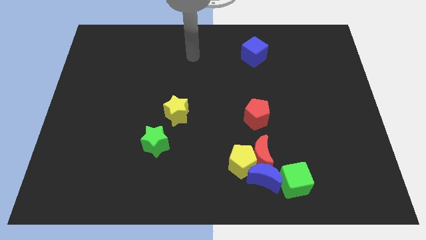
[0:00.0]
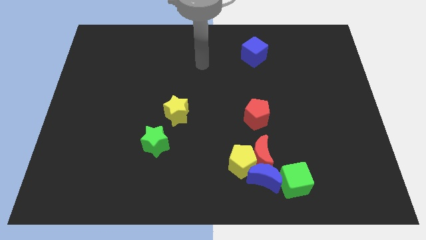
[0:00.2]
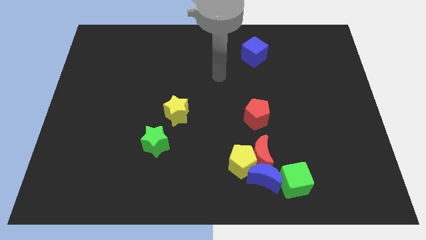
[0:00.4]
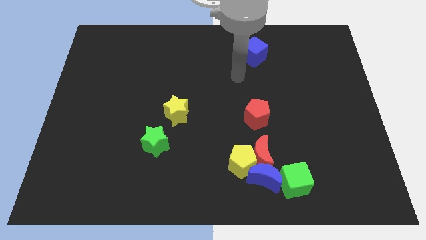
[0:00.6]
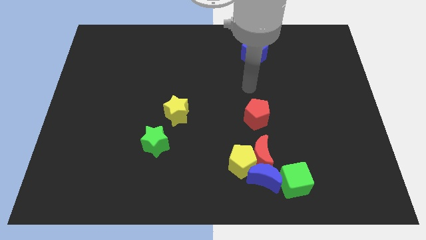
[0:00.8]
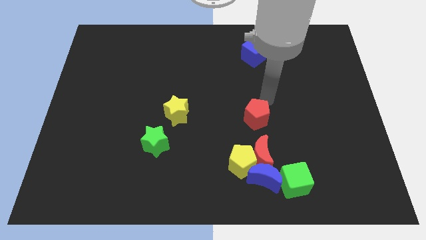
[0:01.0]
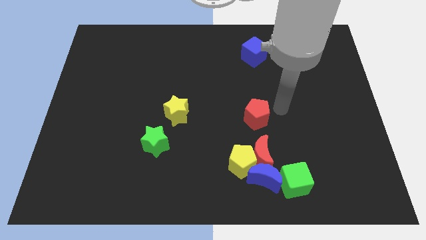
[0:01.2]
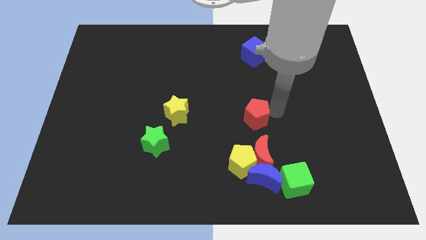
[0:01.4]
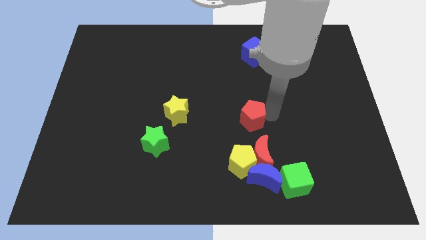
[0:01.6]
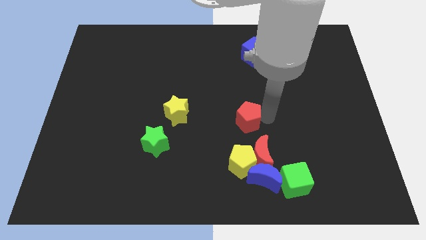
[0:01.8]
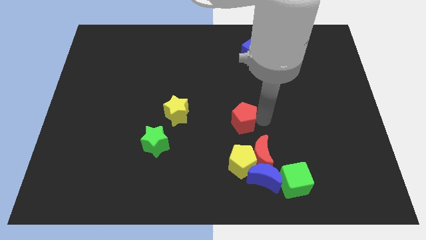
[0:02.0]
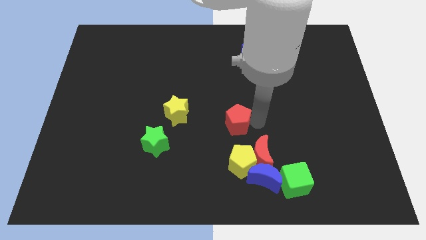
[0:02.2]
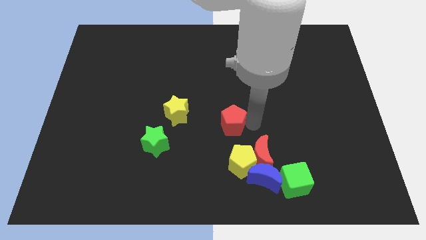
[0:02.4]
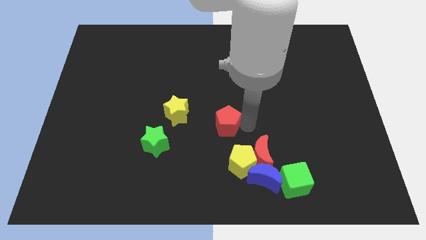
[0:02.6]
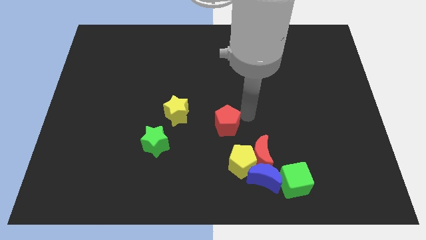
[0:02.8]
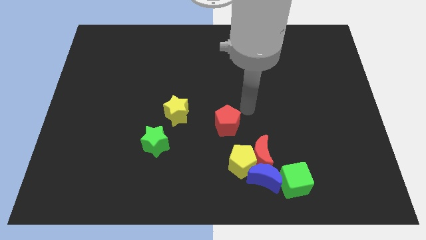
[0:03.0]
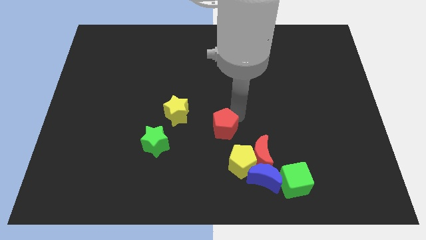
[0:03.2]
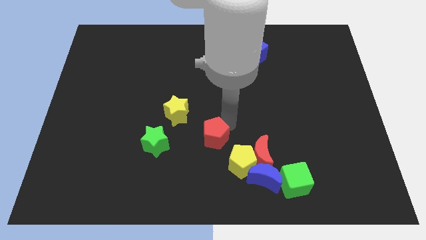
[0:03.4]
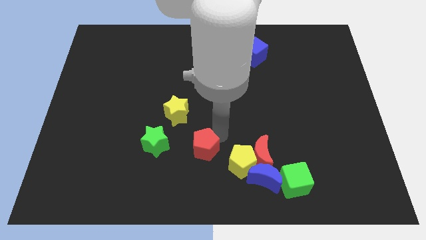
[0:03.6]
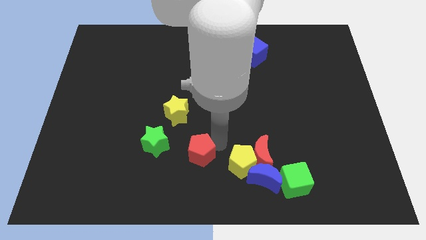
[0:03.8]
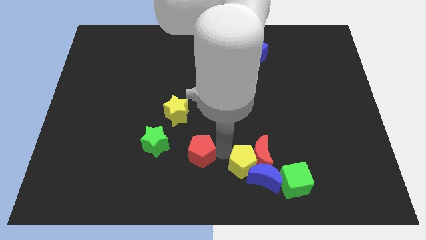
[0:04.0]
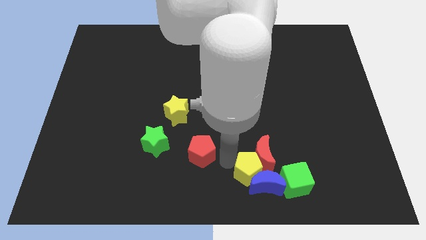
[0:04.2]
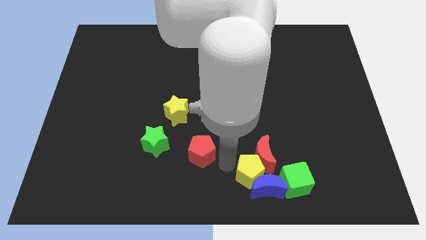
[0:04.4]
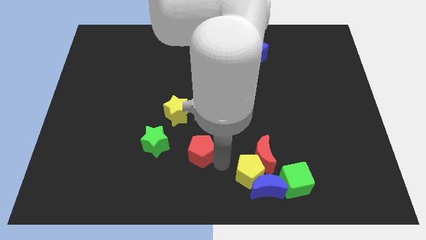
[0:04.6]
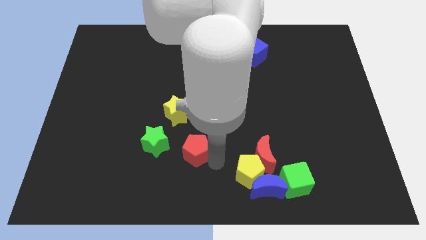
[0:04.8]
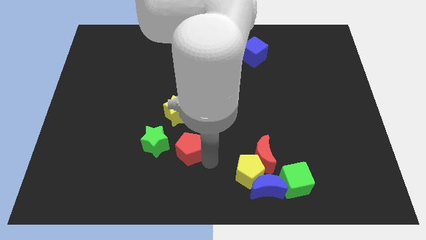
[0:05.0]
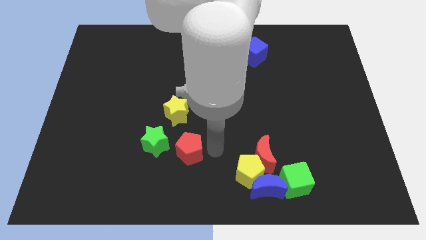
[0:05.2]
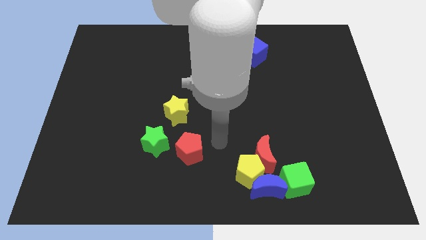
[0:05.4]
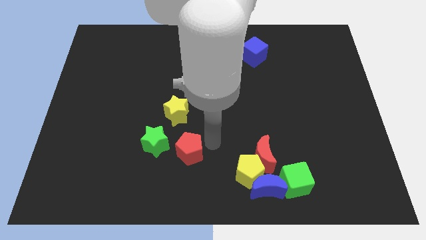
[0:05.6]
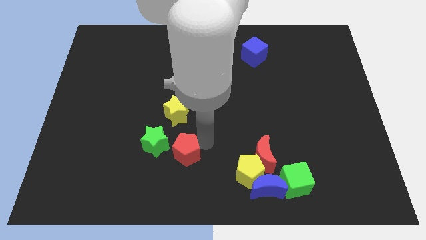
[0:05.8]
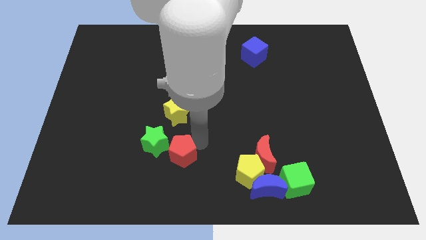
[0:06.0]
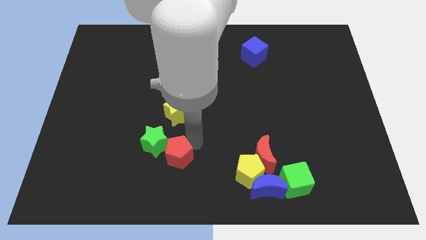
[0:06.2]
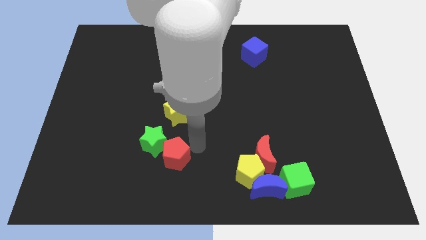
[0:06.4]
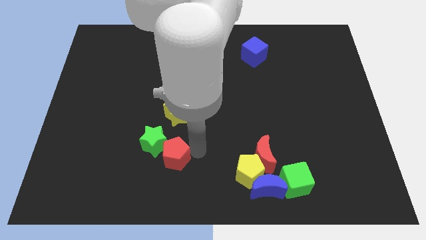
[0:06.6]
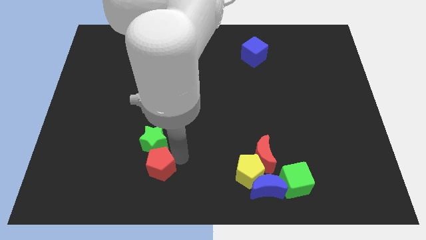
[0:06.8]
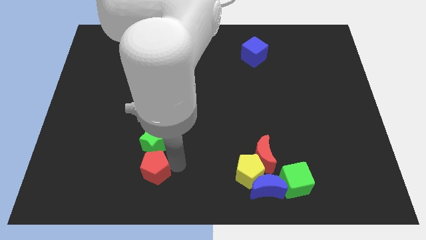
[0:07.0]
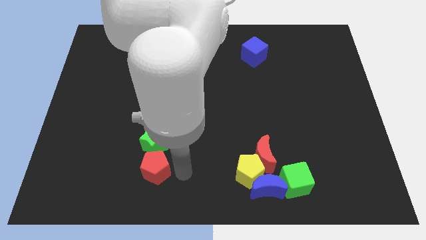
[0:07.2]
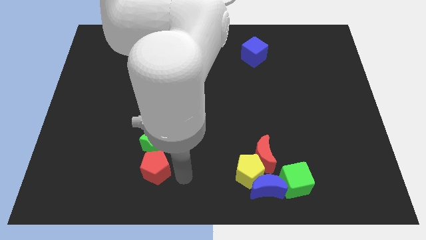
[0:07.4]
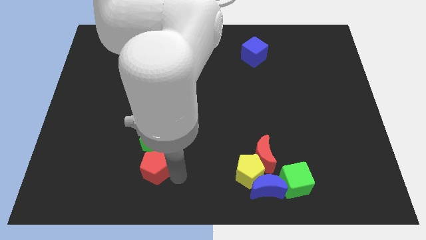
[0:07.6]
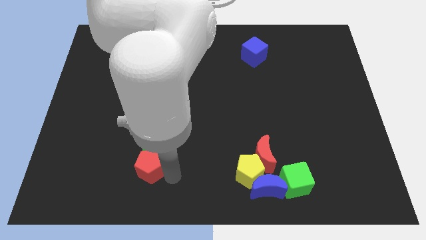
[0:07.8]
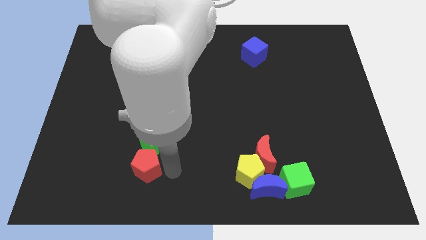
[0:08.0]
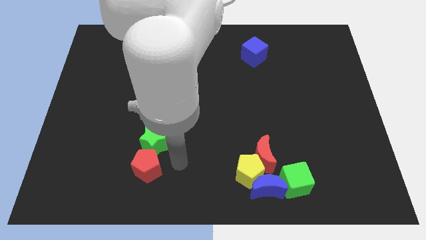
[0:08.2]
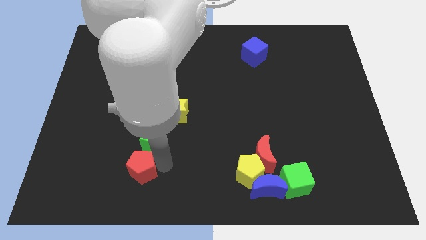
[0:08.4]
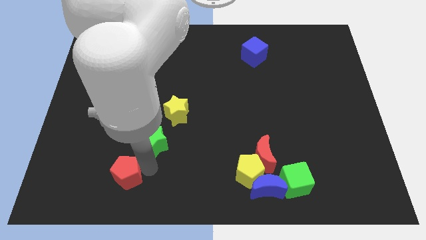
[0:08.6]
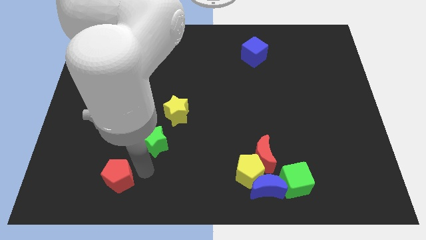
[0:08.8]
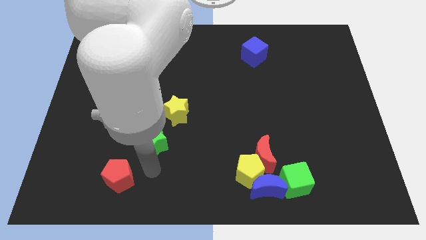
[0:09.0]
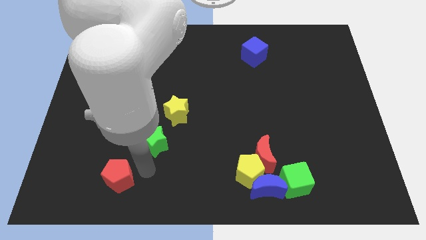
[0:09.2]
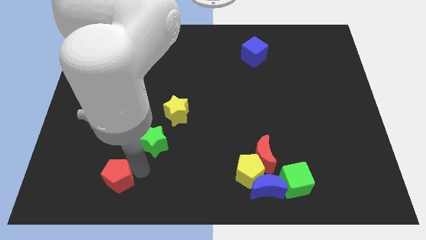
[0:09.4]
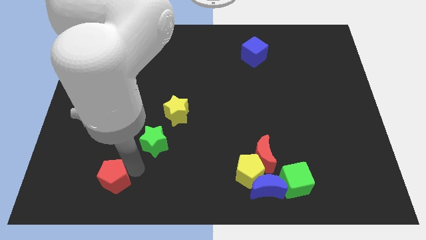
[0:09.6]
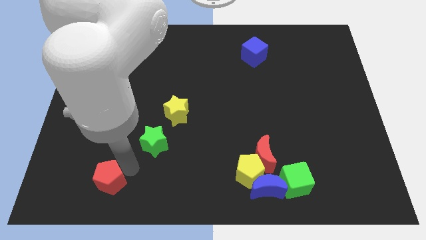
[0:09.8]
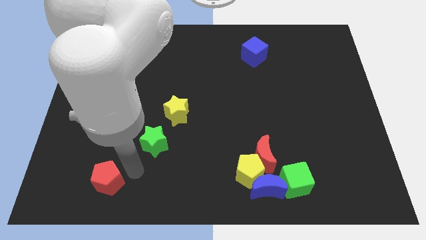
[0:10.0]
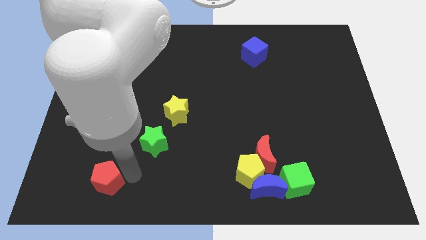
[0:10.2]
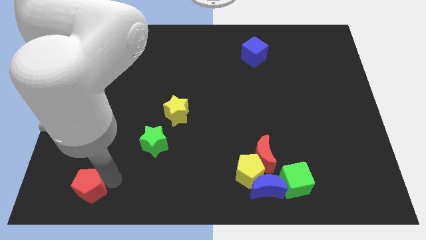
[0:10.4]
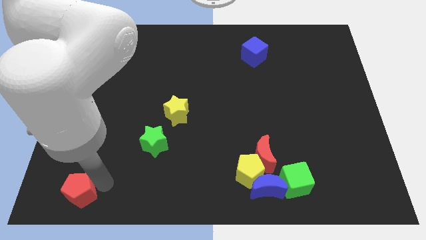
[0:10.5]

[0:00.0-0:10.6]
slide the red pentagon to the bottom left
